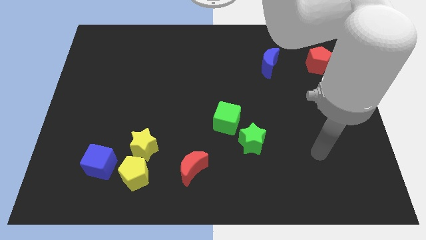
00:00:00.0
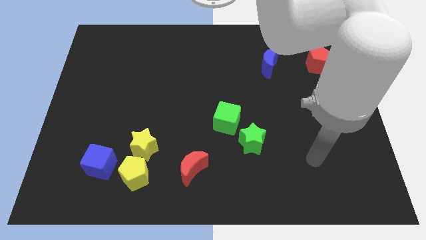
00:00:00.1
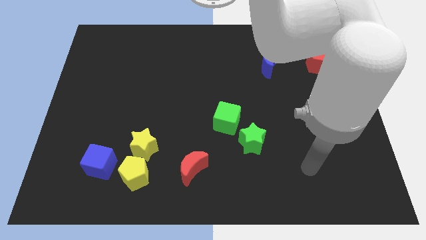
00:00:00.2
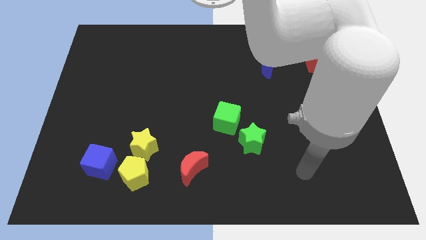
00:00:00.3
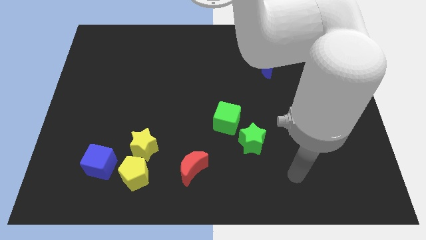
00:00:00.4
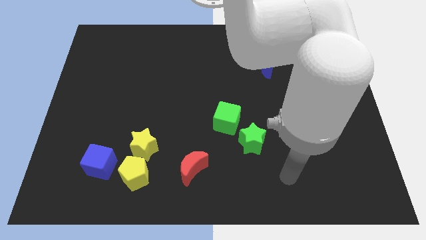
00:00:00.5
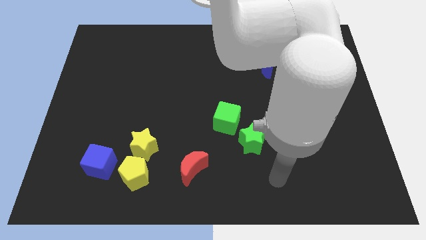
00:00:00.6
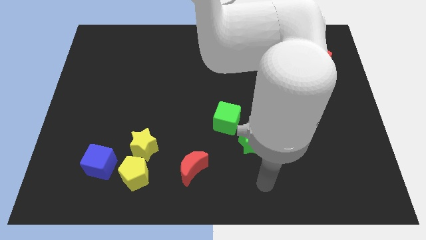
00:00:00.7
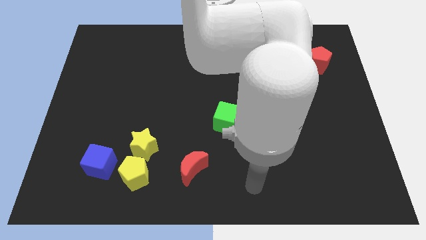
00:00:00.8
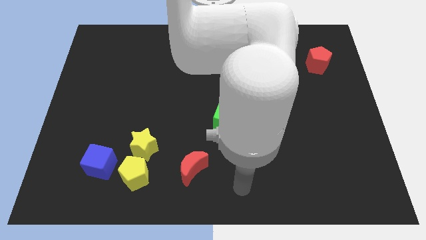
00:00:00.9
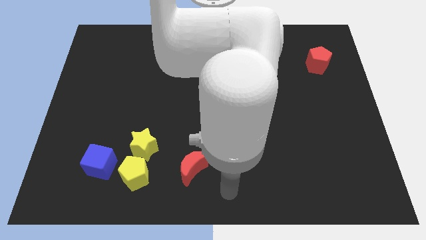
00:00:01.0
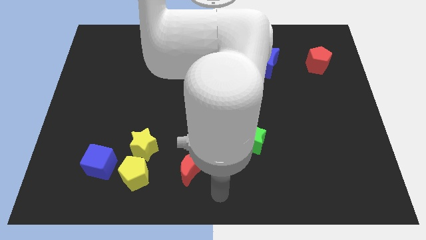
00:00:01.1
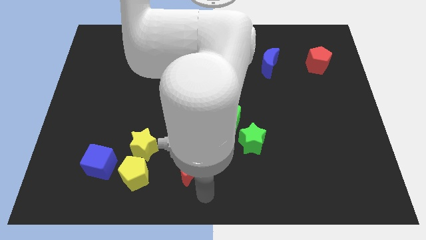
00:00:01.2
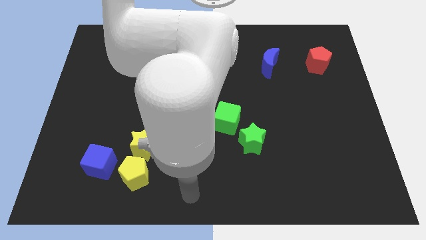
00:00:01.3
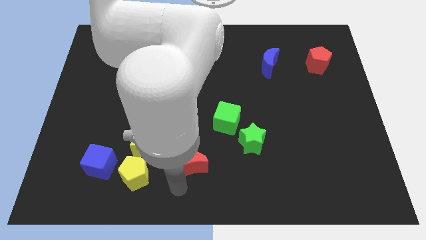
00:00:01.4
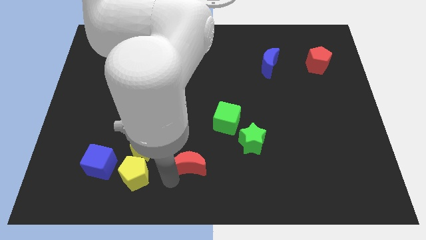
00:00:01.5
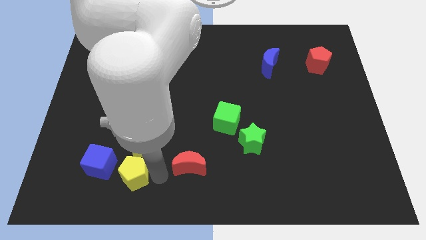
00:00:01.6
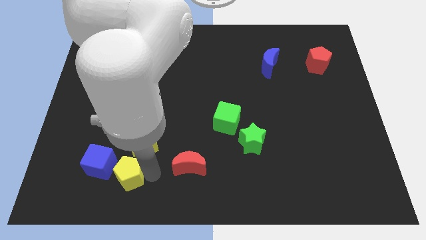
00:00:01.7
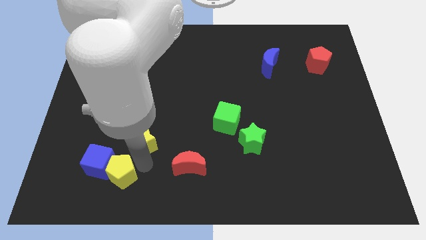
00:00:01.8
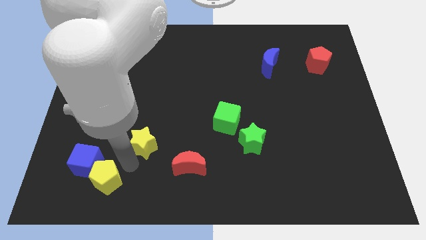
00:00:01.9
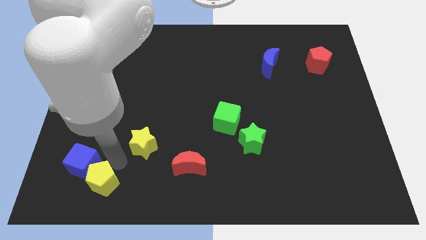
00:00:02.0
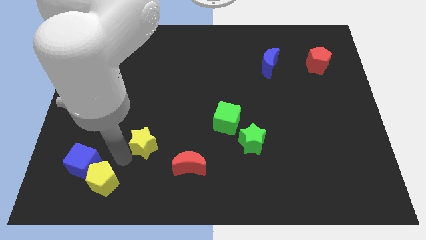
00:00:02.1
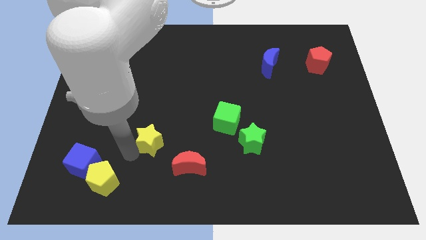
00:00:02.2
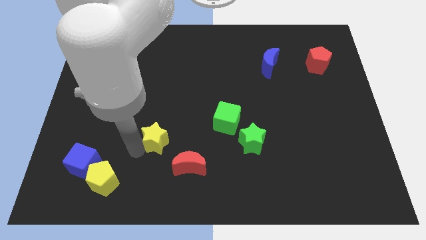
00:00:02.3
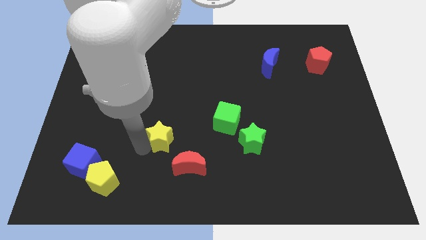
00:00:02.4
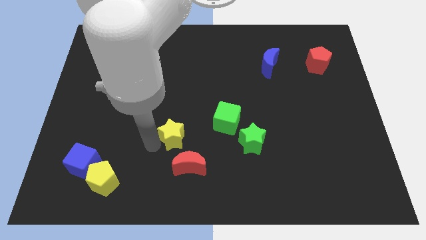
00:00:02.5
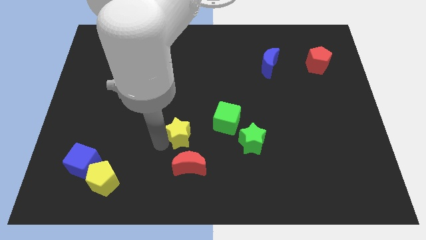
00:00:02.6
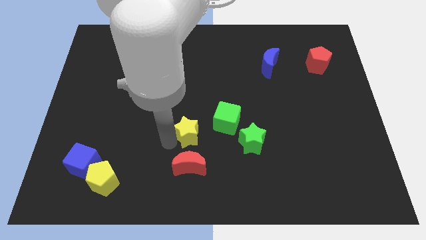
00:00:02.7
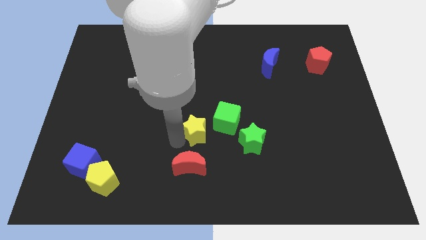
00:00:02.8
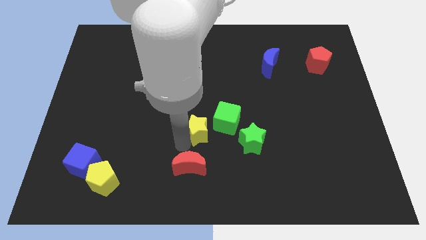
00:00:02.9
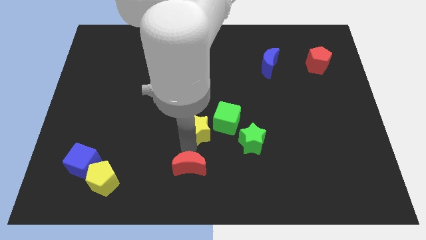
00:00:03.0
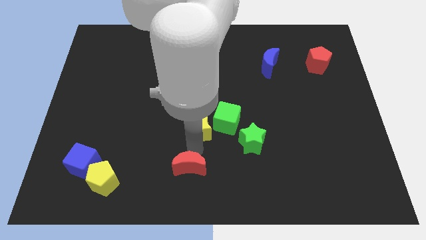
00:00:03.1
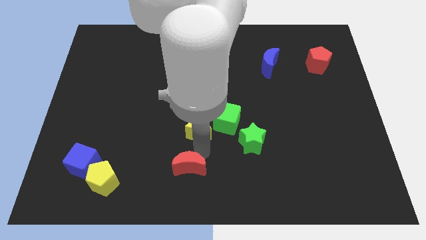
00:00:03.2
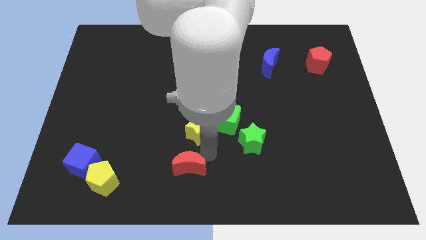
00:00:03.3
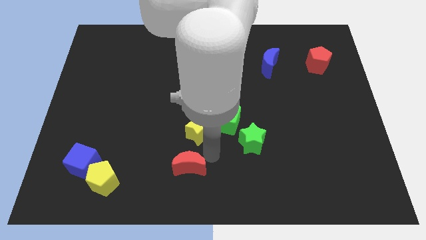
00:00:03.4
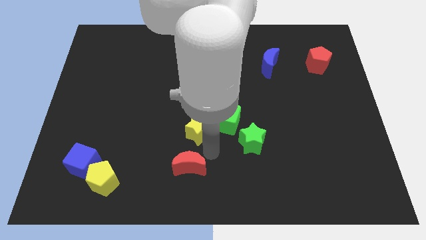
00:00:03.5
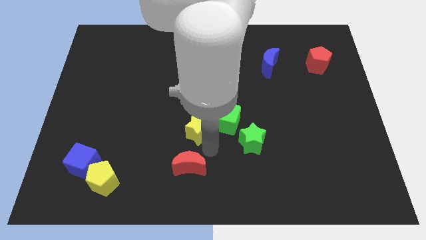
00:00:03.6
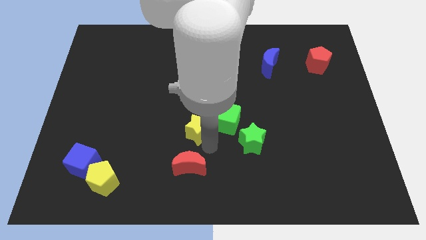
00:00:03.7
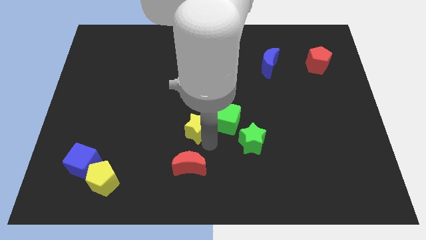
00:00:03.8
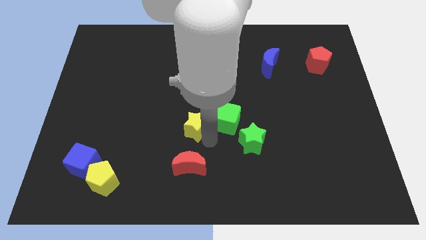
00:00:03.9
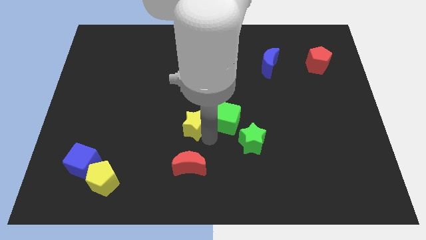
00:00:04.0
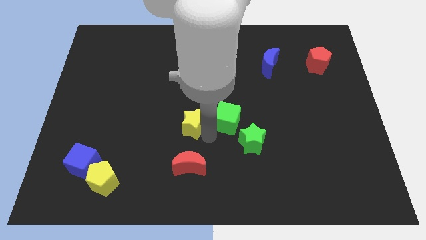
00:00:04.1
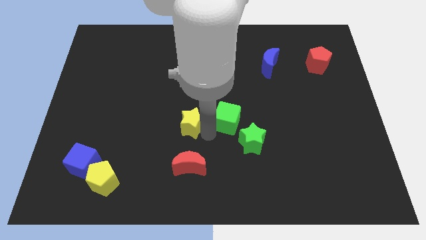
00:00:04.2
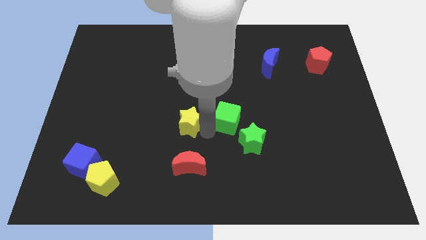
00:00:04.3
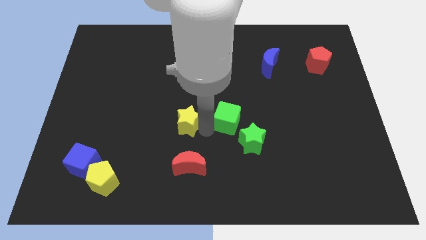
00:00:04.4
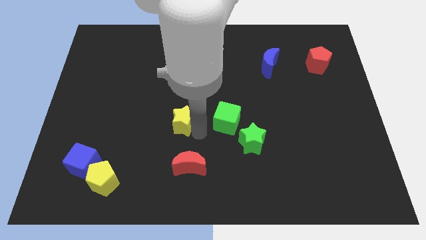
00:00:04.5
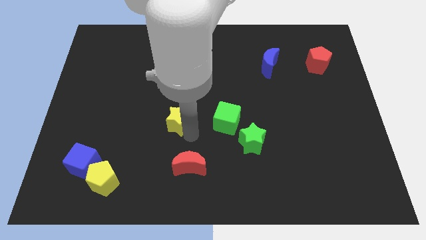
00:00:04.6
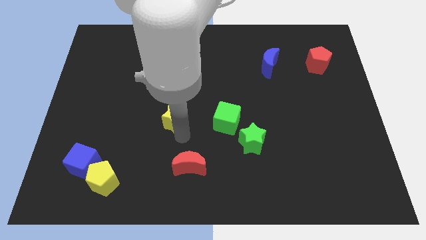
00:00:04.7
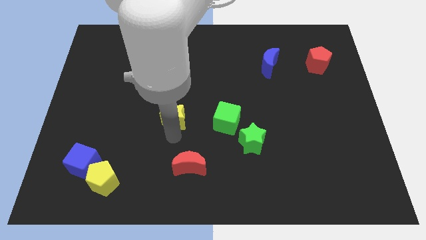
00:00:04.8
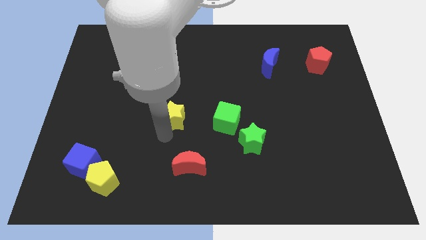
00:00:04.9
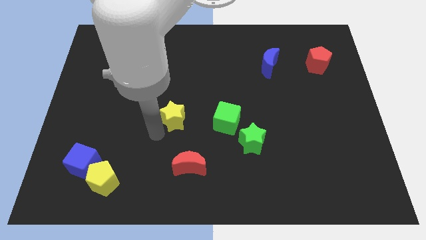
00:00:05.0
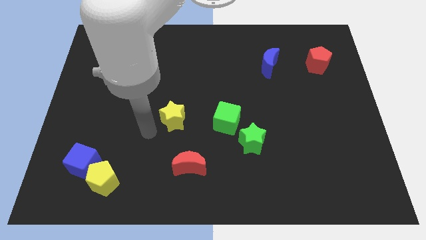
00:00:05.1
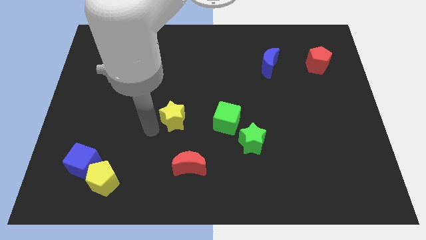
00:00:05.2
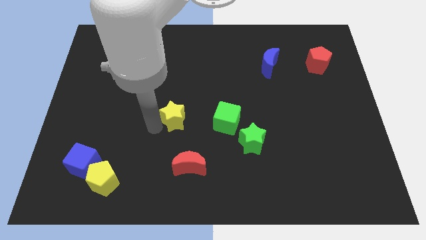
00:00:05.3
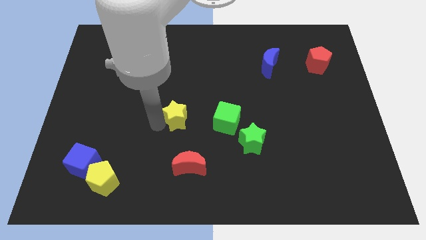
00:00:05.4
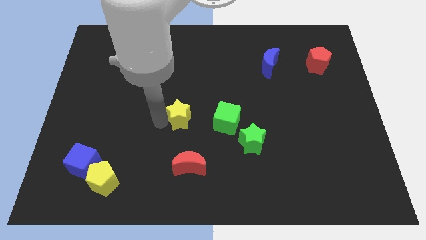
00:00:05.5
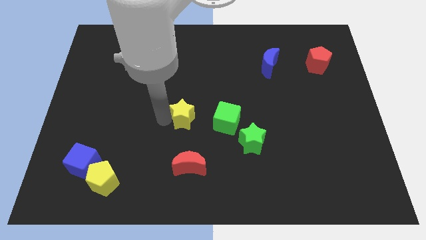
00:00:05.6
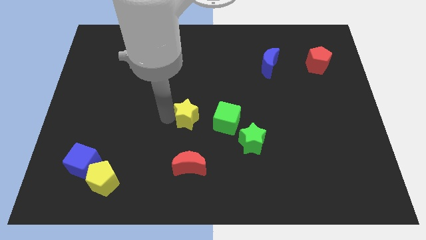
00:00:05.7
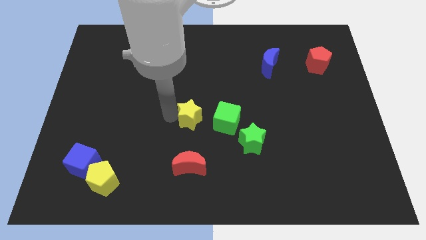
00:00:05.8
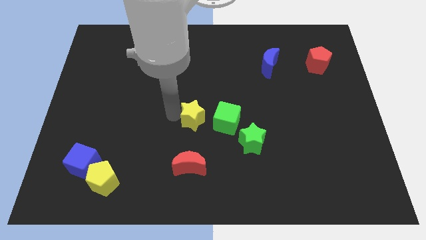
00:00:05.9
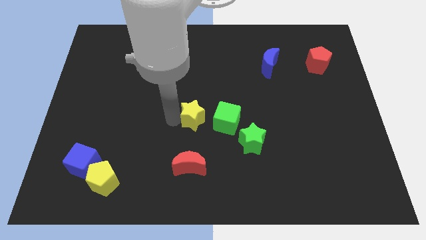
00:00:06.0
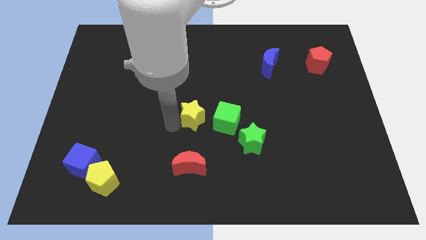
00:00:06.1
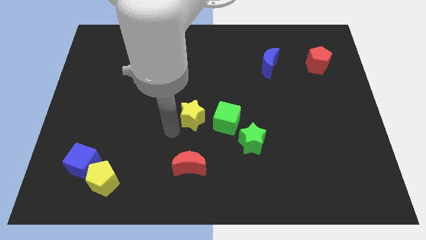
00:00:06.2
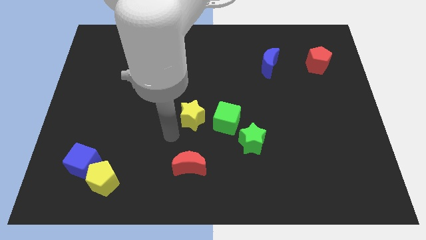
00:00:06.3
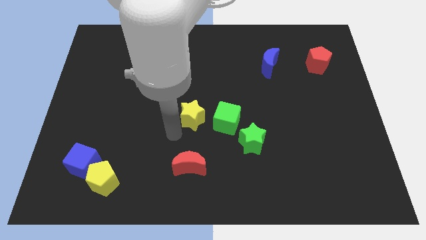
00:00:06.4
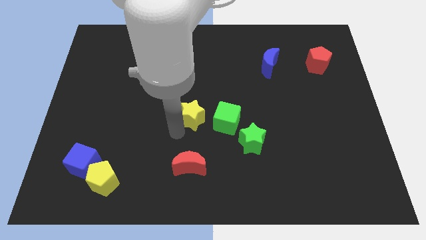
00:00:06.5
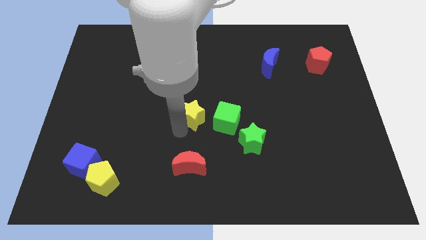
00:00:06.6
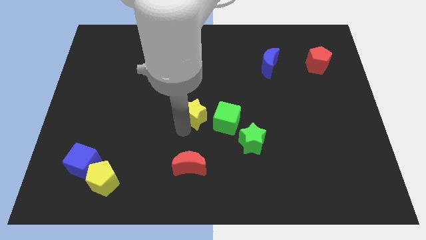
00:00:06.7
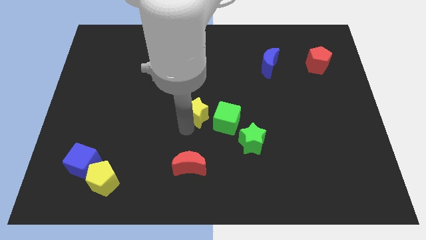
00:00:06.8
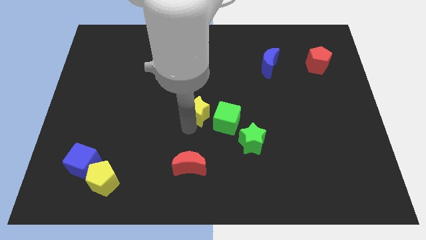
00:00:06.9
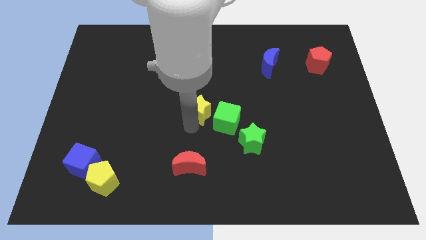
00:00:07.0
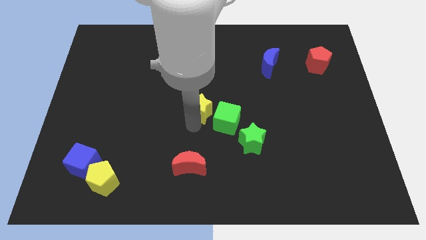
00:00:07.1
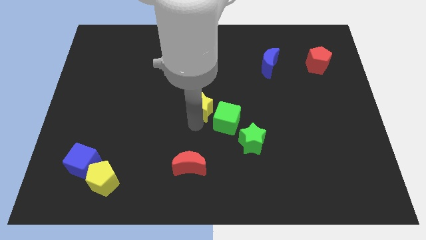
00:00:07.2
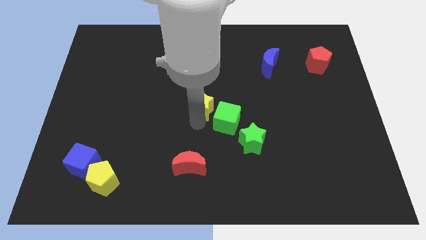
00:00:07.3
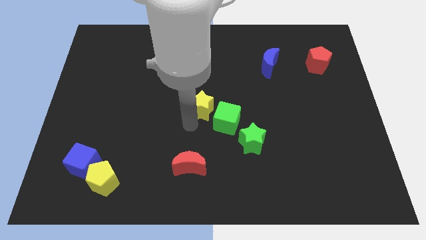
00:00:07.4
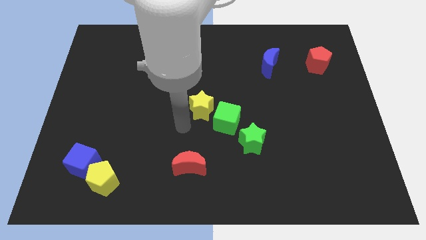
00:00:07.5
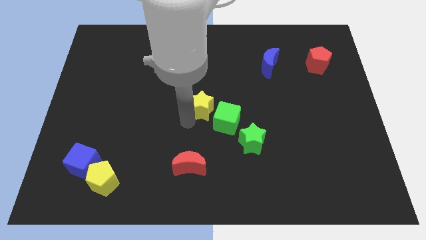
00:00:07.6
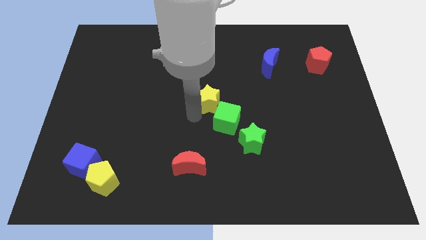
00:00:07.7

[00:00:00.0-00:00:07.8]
move the yellow star to the top of the green cube
